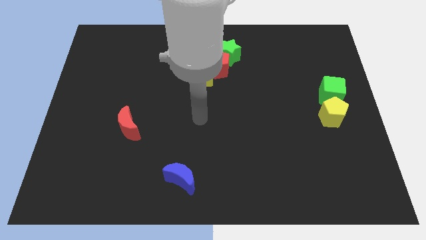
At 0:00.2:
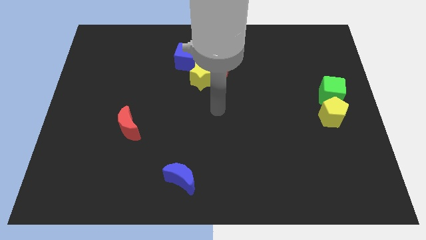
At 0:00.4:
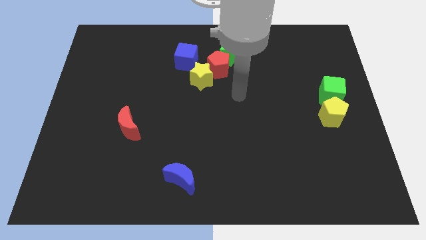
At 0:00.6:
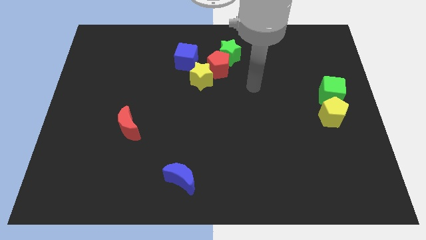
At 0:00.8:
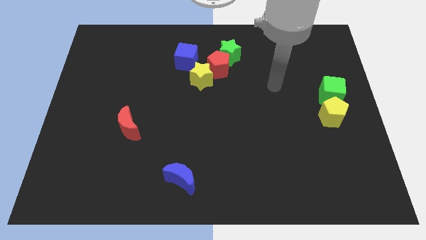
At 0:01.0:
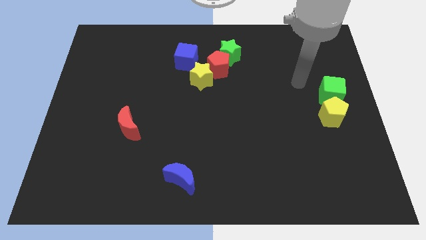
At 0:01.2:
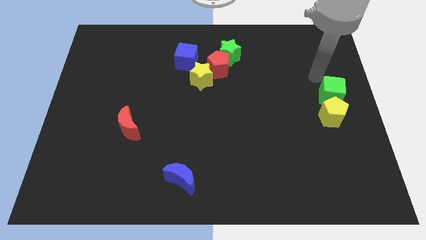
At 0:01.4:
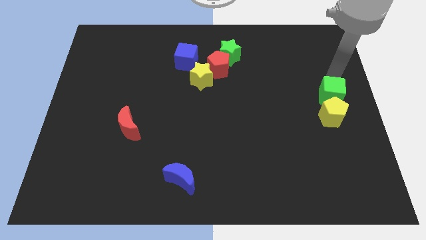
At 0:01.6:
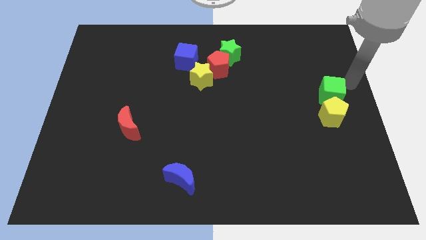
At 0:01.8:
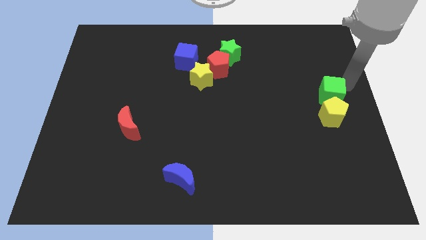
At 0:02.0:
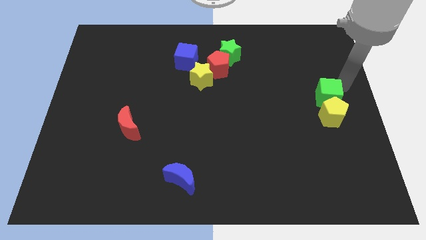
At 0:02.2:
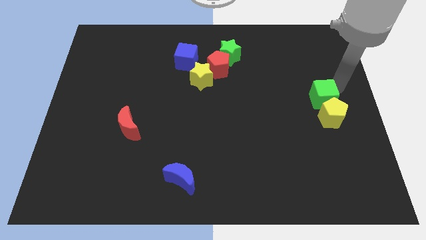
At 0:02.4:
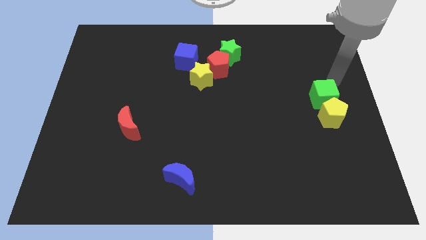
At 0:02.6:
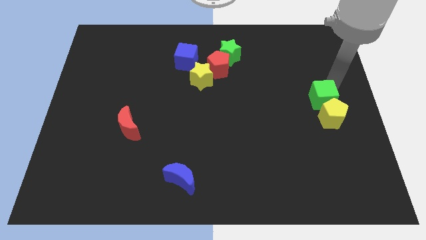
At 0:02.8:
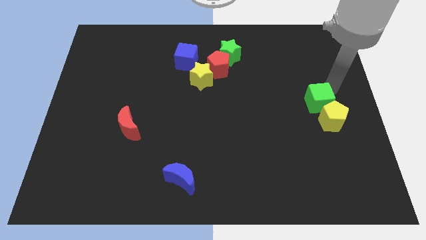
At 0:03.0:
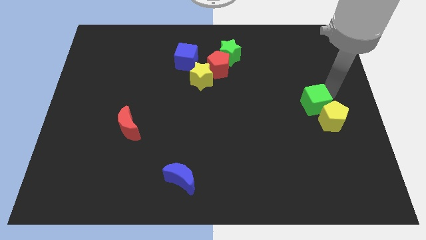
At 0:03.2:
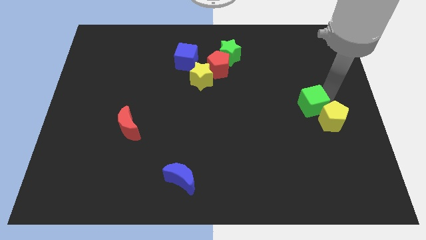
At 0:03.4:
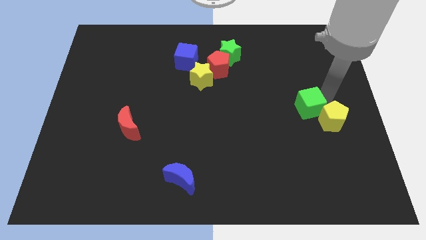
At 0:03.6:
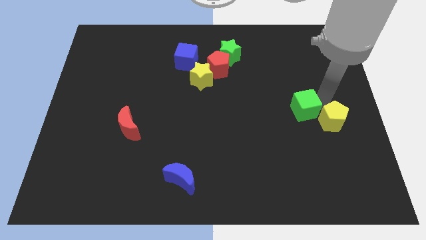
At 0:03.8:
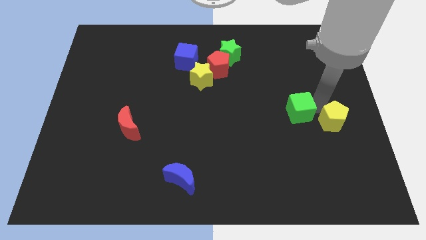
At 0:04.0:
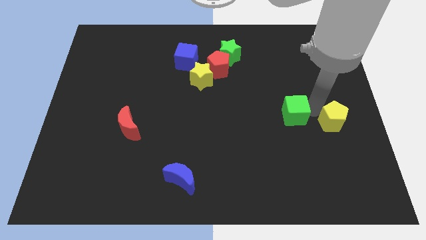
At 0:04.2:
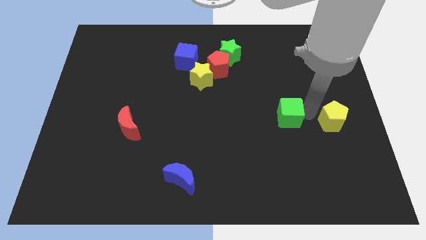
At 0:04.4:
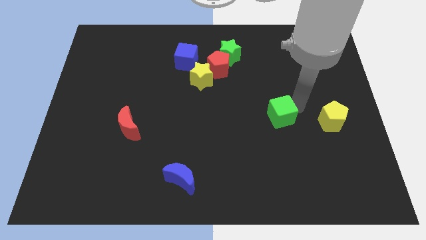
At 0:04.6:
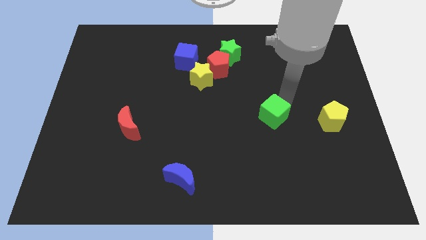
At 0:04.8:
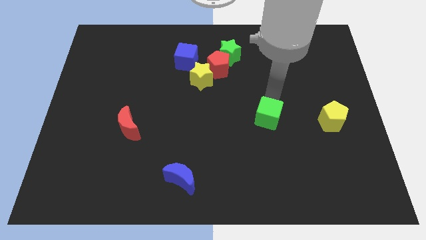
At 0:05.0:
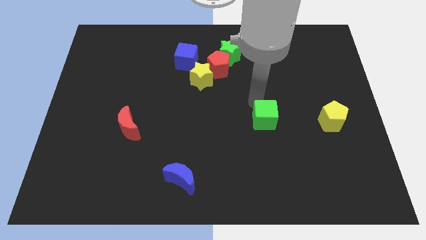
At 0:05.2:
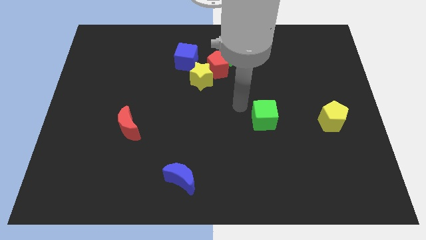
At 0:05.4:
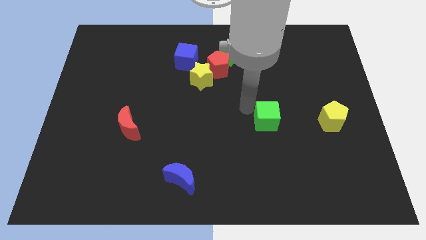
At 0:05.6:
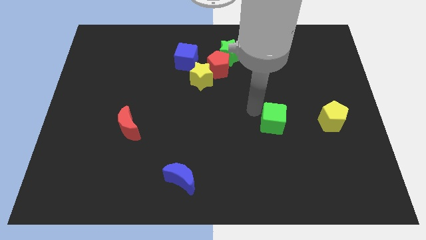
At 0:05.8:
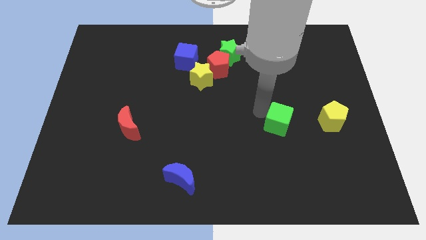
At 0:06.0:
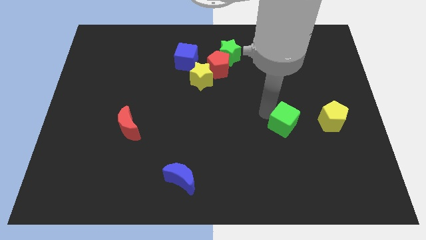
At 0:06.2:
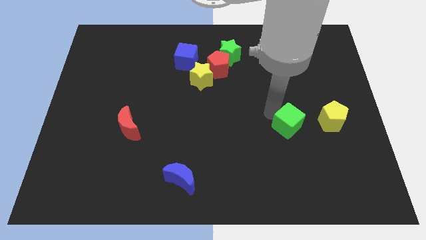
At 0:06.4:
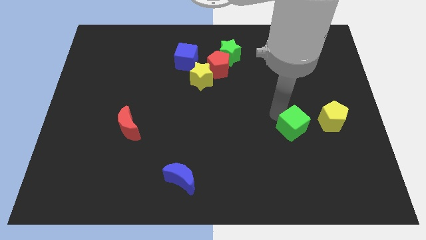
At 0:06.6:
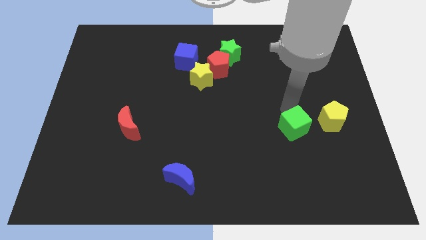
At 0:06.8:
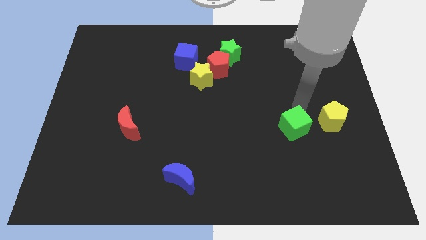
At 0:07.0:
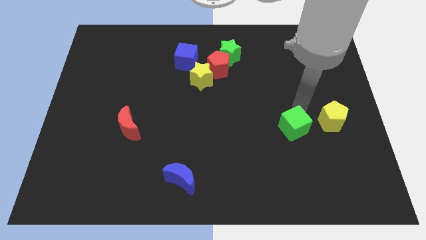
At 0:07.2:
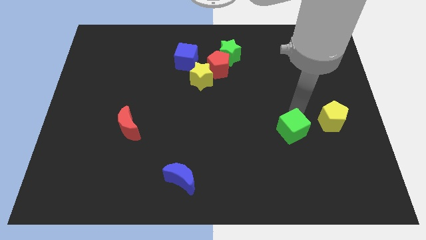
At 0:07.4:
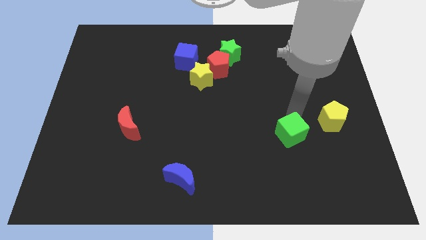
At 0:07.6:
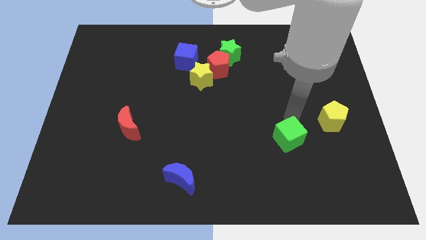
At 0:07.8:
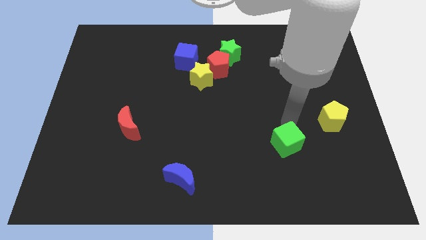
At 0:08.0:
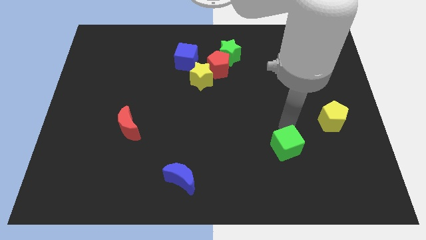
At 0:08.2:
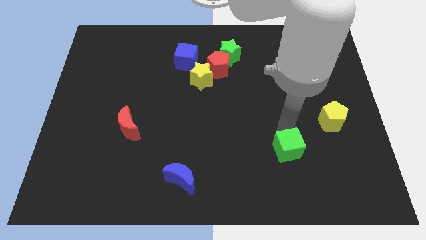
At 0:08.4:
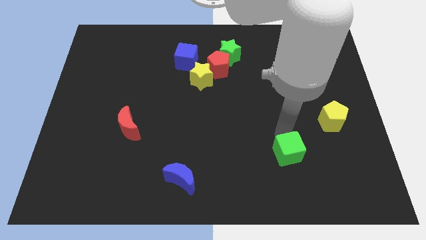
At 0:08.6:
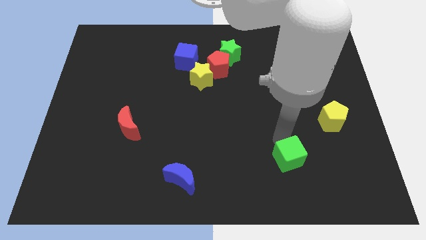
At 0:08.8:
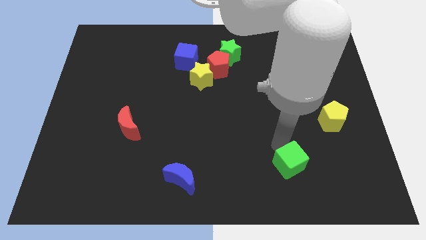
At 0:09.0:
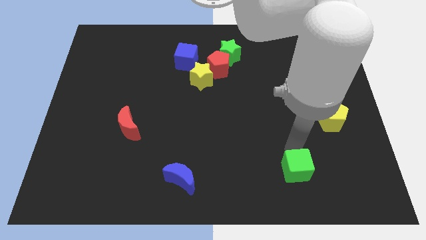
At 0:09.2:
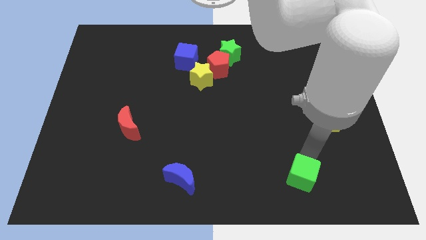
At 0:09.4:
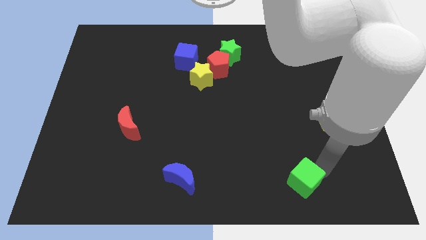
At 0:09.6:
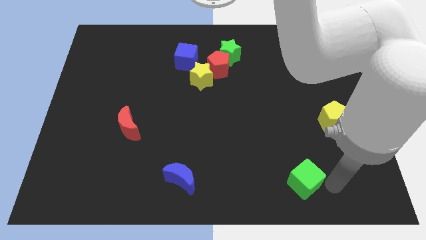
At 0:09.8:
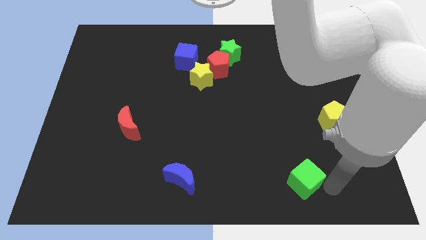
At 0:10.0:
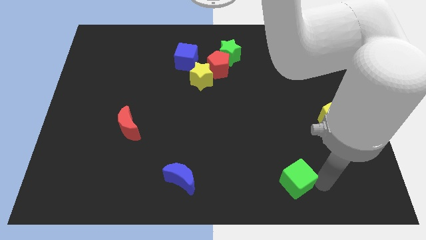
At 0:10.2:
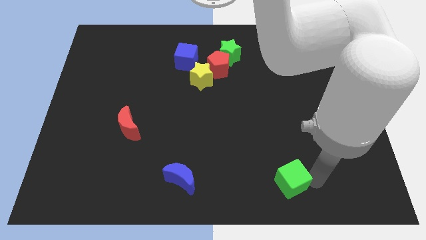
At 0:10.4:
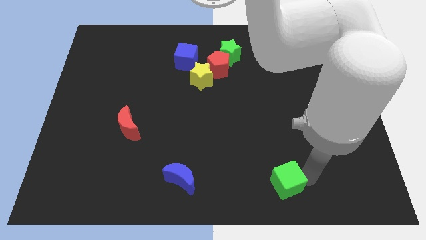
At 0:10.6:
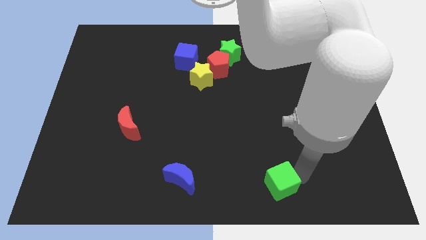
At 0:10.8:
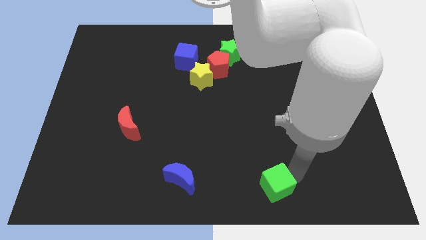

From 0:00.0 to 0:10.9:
put the green cube to the bottom side

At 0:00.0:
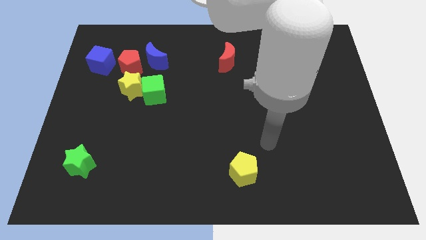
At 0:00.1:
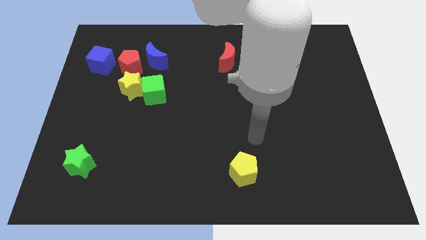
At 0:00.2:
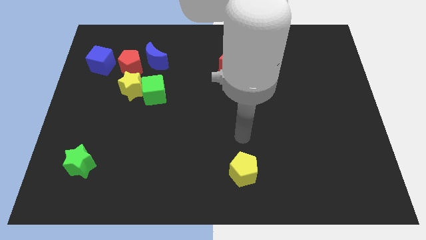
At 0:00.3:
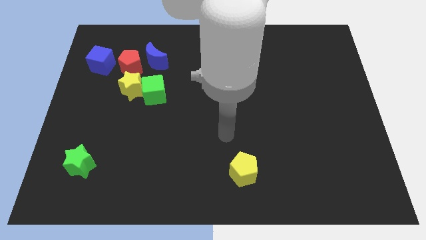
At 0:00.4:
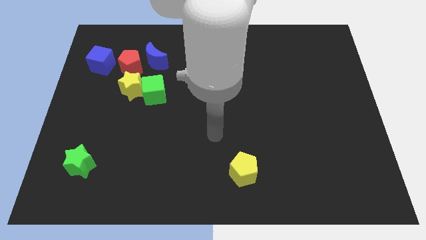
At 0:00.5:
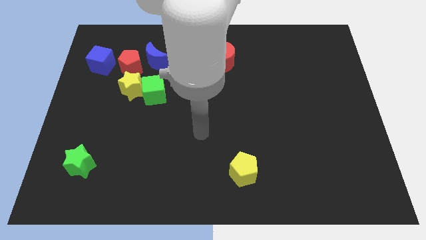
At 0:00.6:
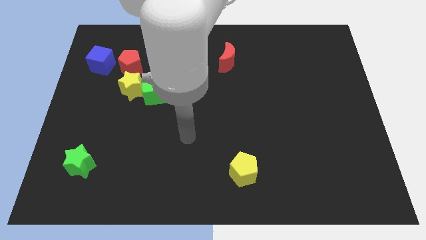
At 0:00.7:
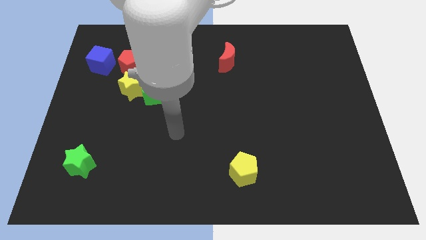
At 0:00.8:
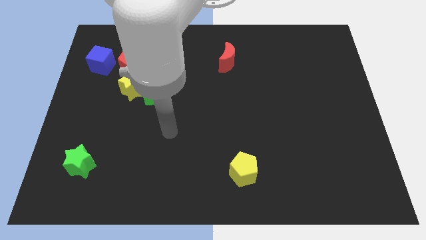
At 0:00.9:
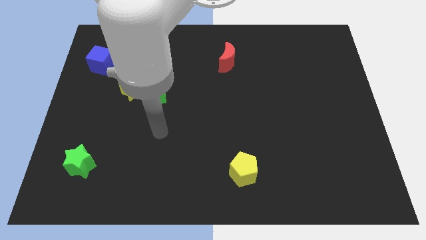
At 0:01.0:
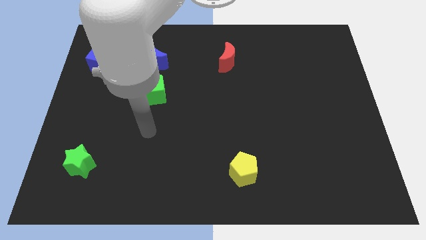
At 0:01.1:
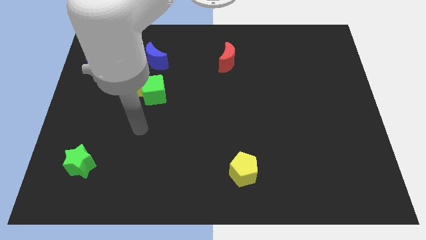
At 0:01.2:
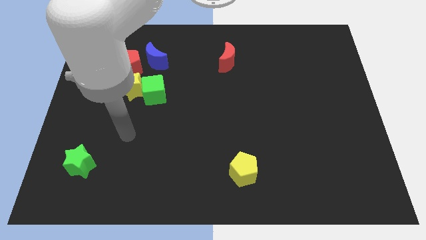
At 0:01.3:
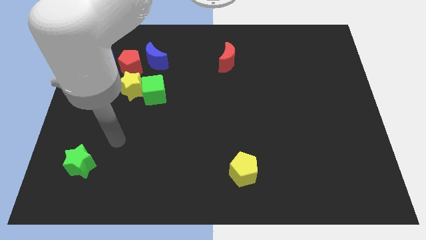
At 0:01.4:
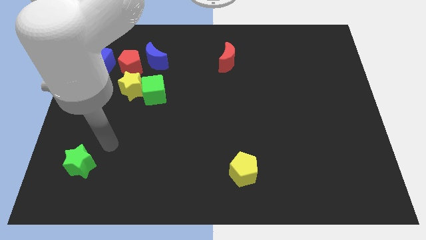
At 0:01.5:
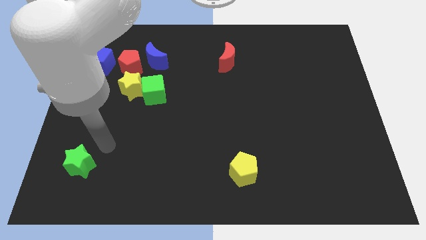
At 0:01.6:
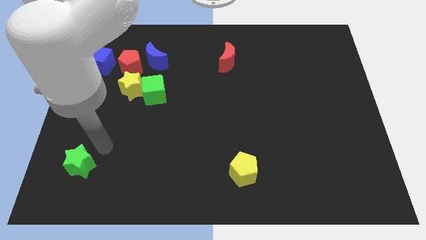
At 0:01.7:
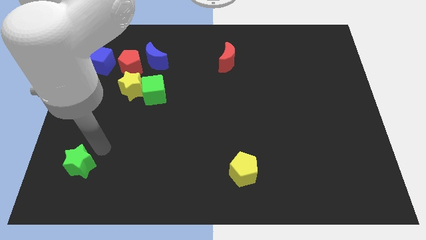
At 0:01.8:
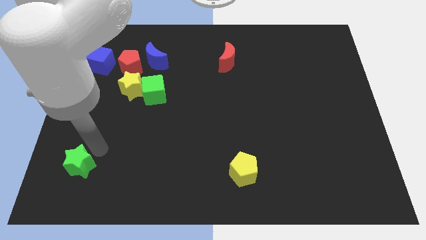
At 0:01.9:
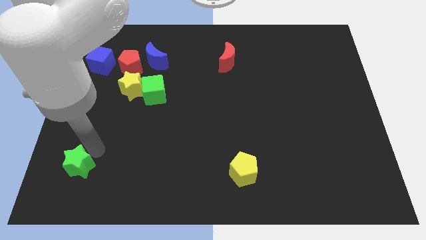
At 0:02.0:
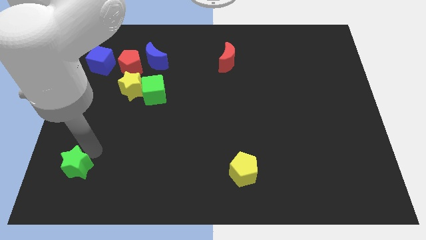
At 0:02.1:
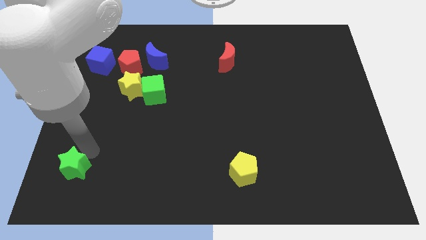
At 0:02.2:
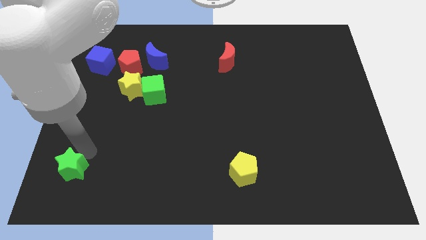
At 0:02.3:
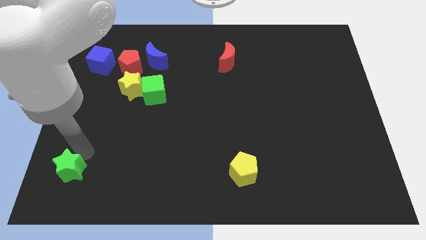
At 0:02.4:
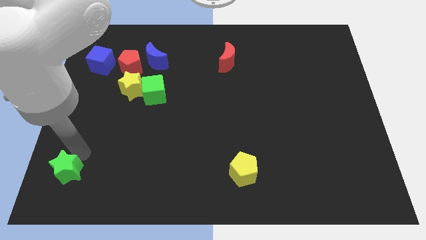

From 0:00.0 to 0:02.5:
move the green star to the lower left corner
